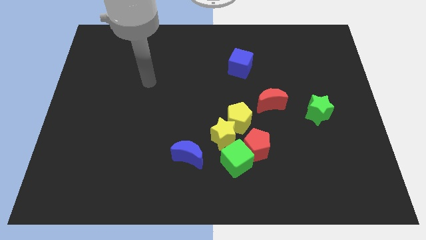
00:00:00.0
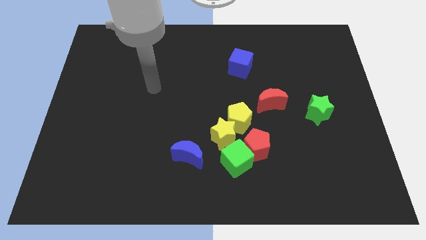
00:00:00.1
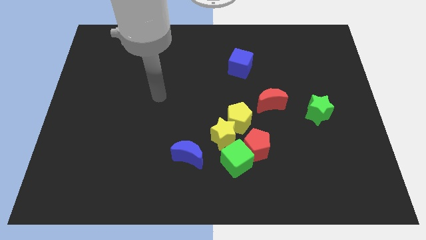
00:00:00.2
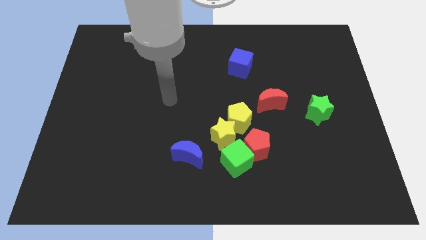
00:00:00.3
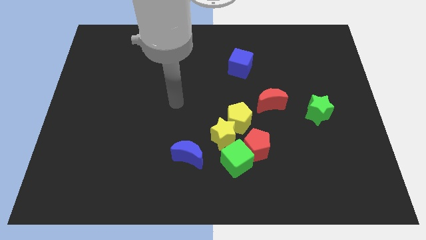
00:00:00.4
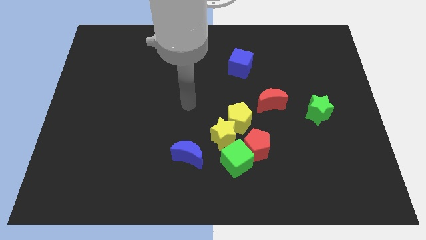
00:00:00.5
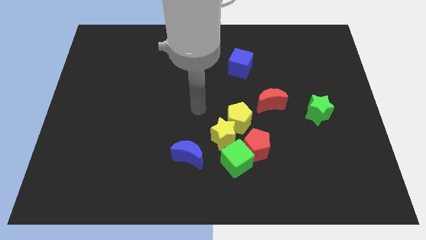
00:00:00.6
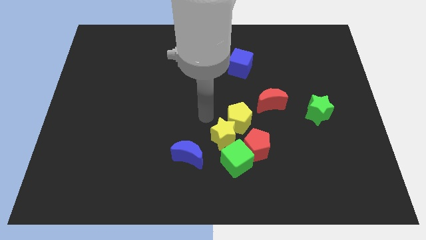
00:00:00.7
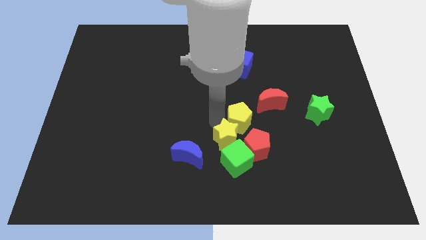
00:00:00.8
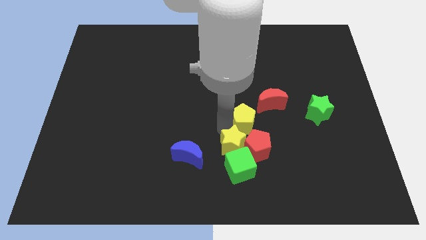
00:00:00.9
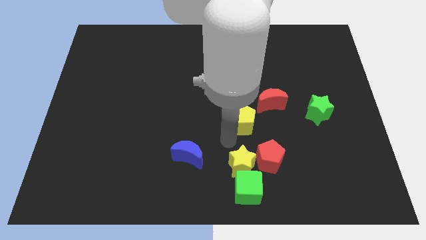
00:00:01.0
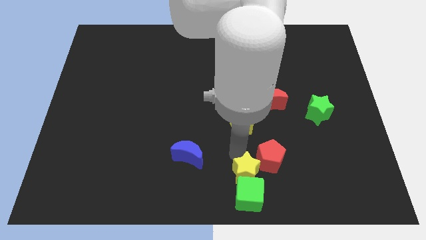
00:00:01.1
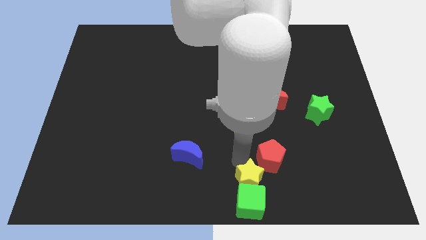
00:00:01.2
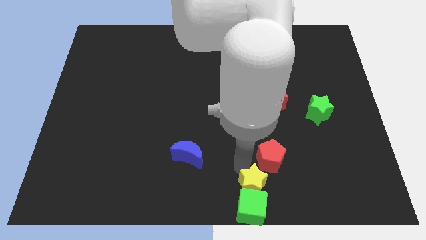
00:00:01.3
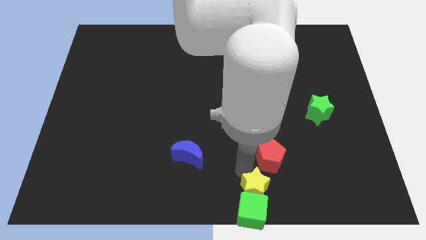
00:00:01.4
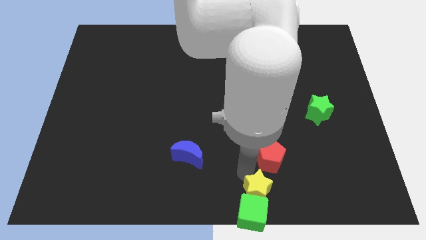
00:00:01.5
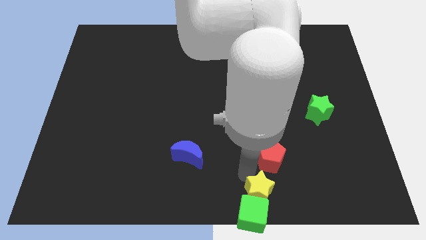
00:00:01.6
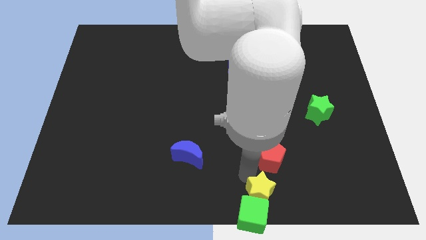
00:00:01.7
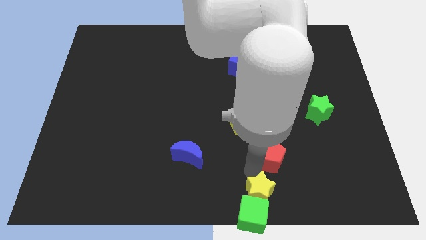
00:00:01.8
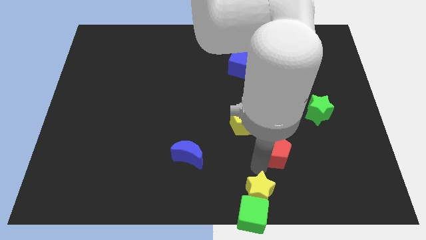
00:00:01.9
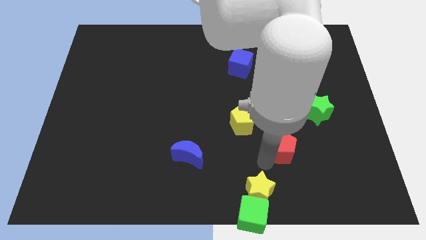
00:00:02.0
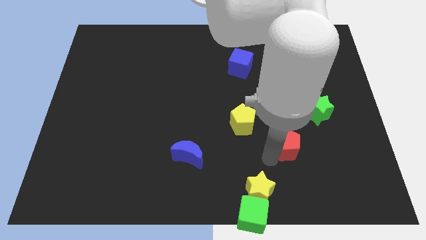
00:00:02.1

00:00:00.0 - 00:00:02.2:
move the red pentagon away from the clump

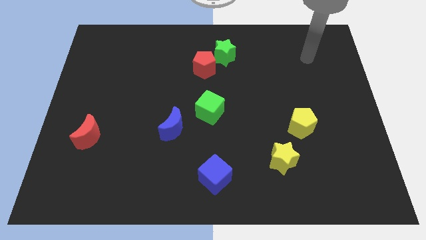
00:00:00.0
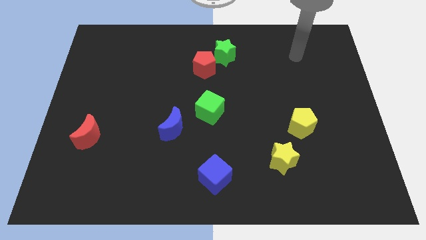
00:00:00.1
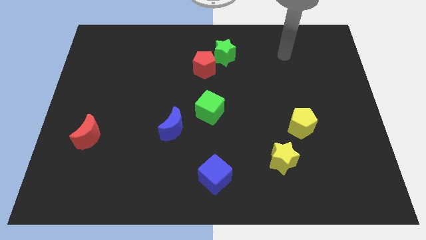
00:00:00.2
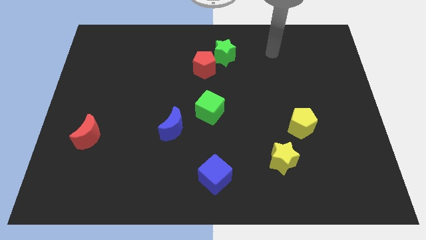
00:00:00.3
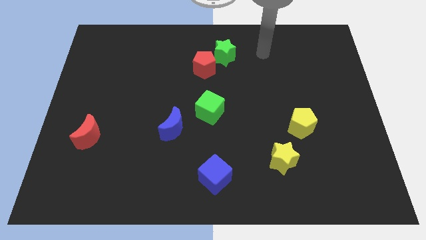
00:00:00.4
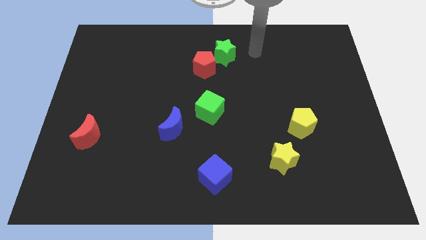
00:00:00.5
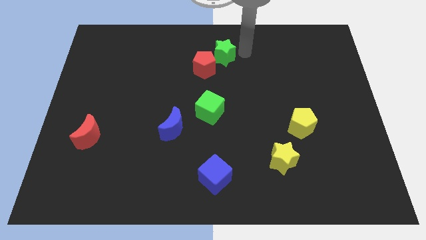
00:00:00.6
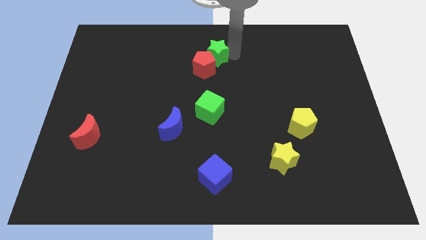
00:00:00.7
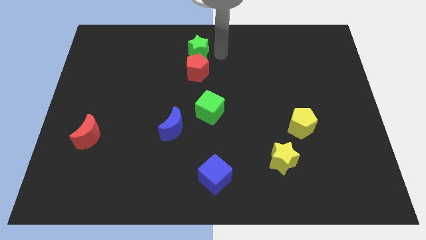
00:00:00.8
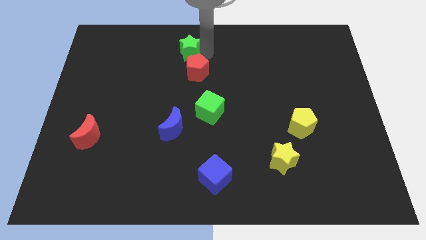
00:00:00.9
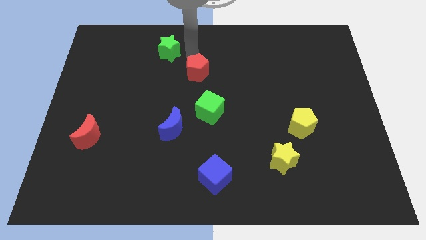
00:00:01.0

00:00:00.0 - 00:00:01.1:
pull the red pentagon apart from the green star

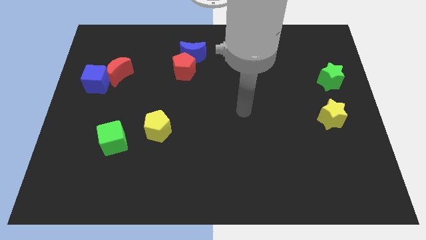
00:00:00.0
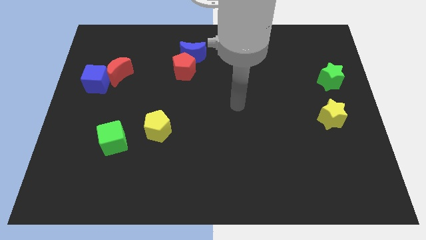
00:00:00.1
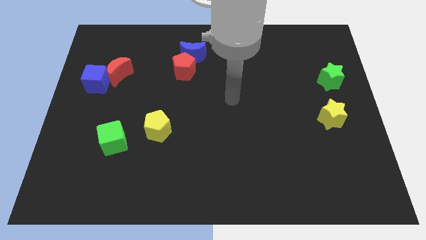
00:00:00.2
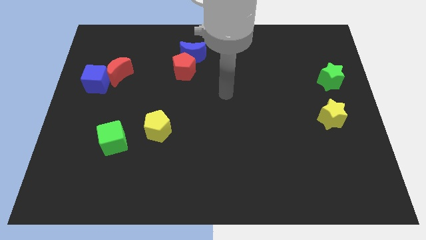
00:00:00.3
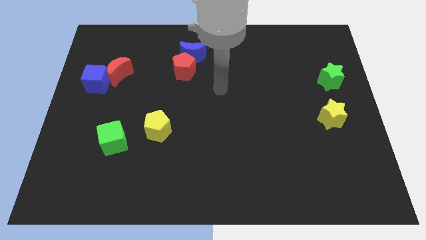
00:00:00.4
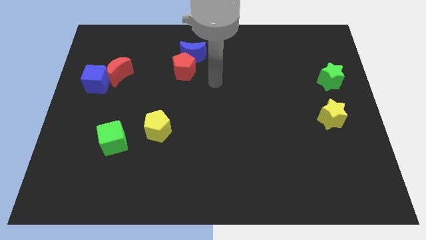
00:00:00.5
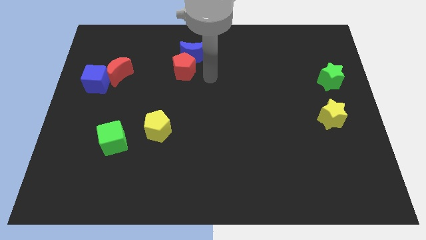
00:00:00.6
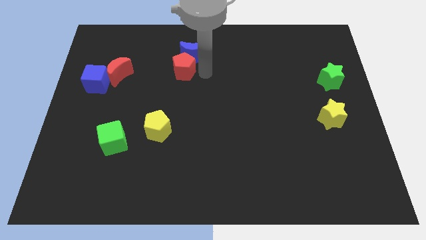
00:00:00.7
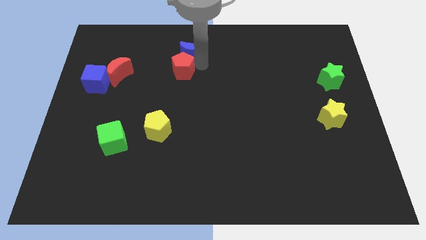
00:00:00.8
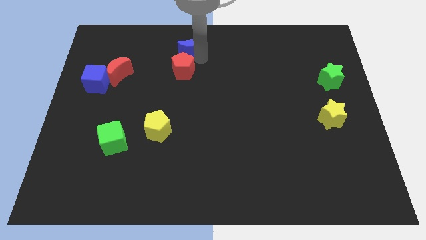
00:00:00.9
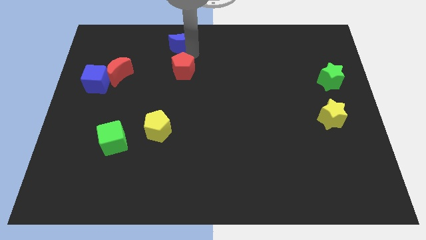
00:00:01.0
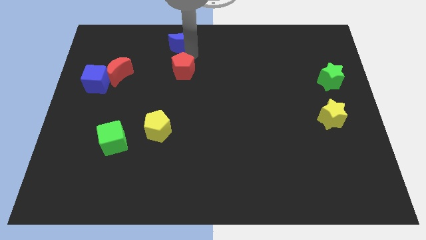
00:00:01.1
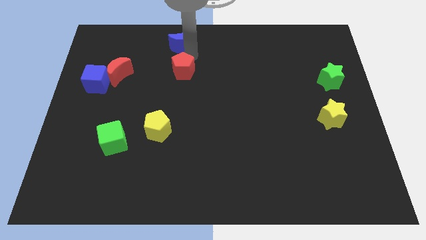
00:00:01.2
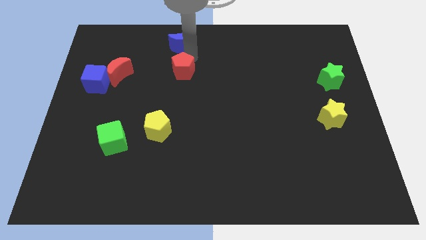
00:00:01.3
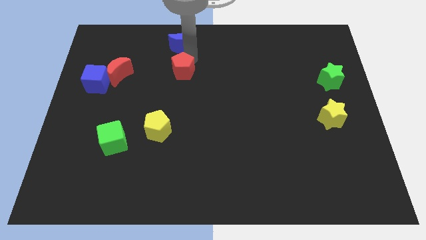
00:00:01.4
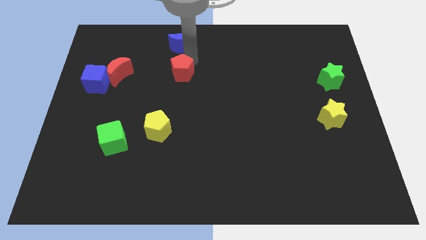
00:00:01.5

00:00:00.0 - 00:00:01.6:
move the red pentagon away from the blue moon

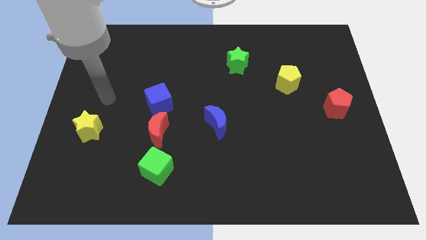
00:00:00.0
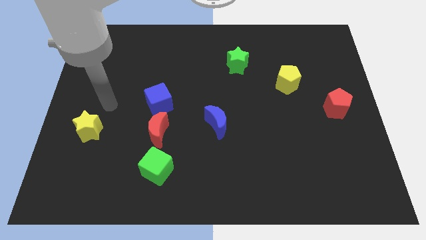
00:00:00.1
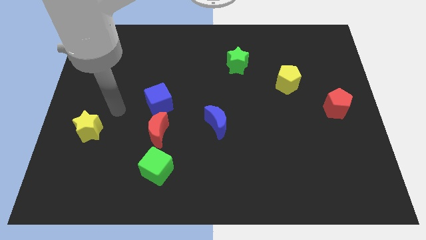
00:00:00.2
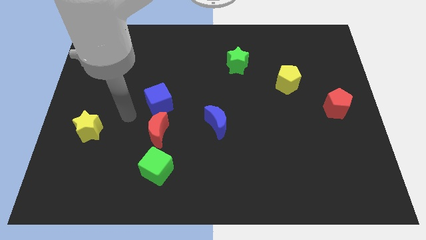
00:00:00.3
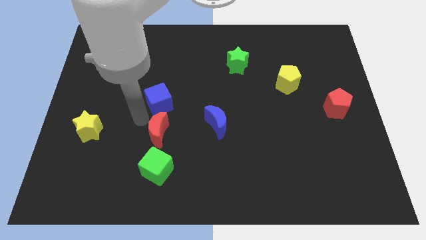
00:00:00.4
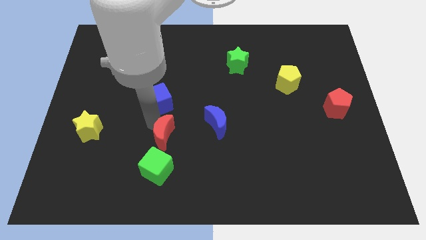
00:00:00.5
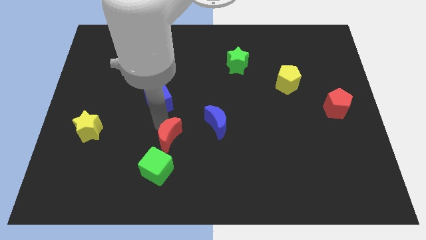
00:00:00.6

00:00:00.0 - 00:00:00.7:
move the blue cube away from the red moon

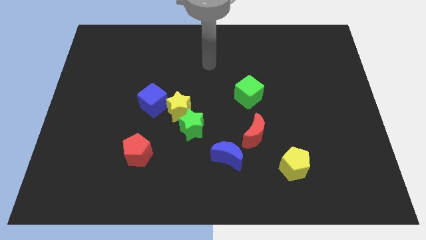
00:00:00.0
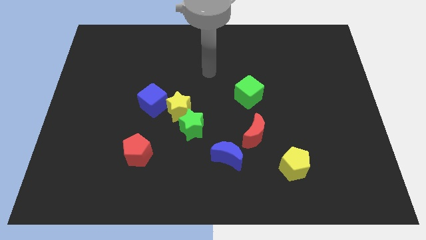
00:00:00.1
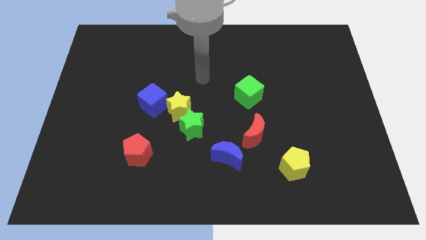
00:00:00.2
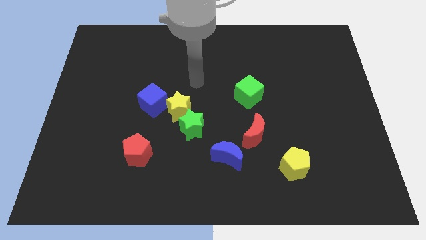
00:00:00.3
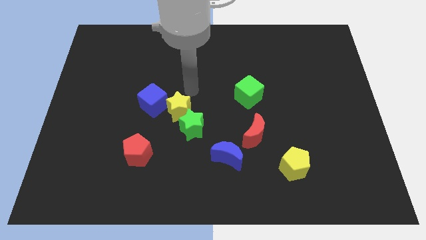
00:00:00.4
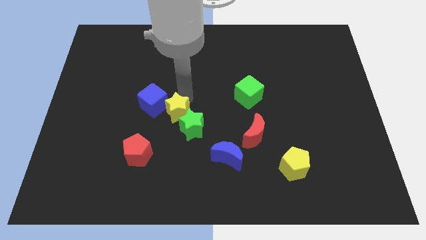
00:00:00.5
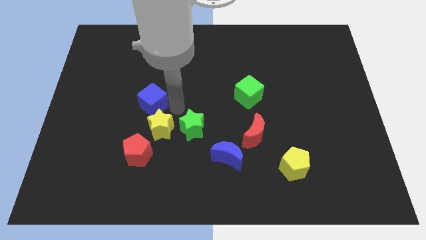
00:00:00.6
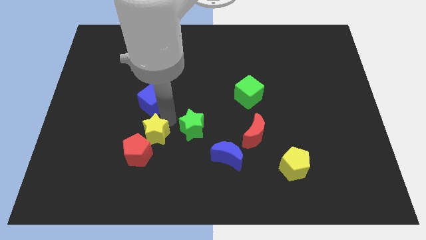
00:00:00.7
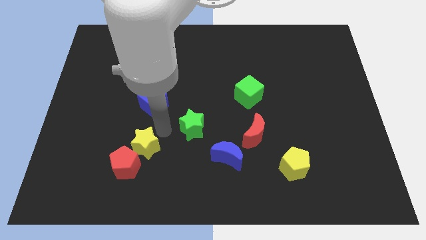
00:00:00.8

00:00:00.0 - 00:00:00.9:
move the green star away from the yellow star

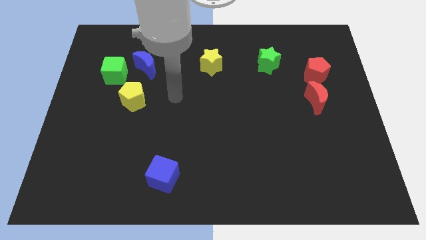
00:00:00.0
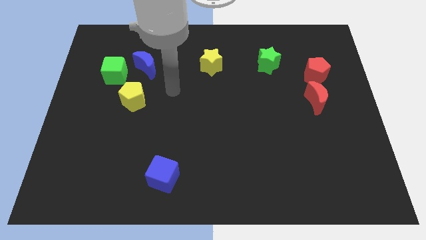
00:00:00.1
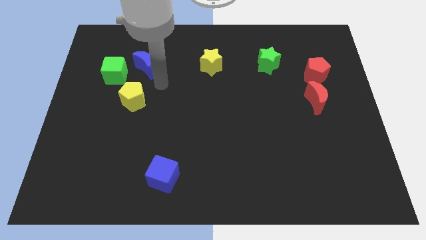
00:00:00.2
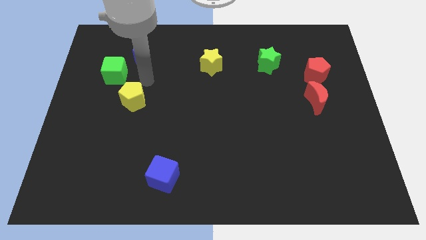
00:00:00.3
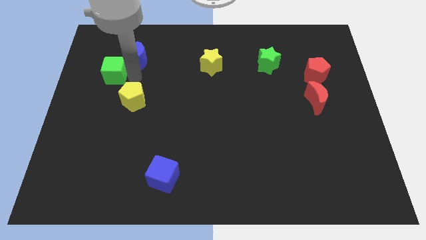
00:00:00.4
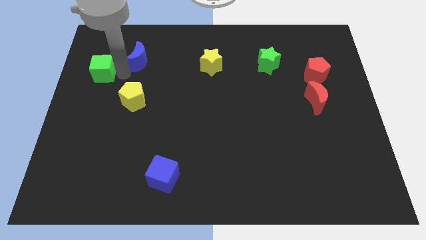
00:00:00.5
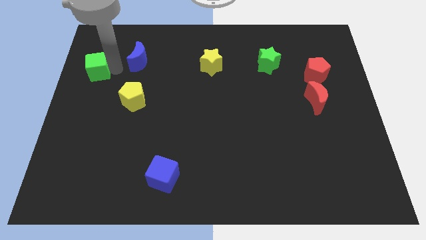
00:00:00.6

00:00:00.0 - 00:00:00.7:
move the blue moon away from the green cube

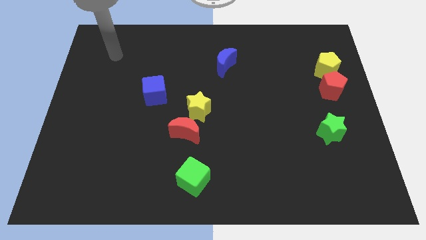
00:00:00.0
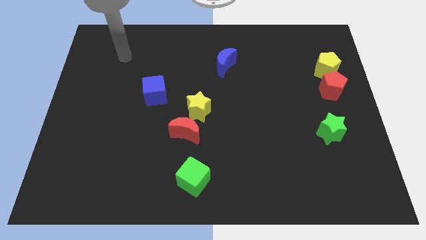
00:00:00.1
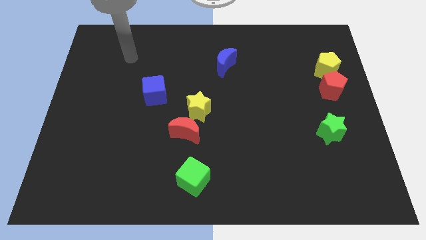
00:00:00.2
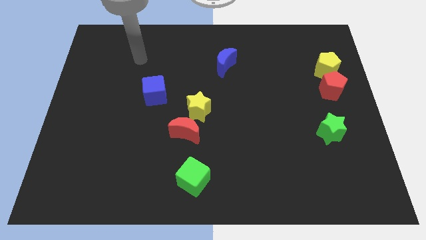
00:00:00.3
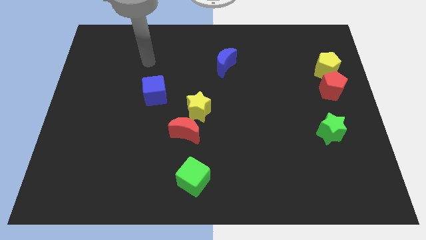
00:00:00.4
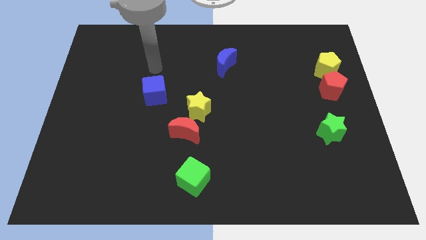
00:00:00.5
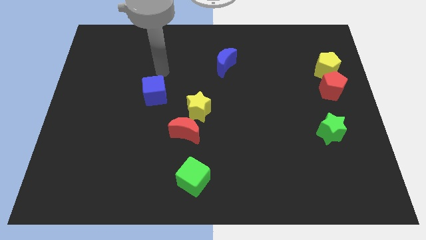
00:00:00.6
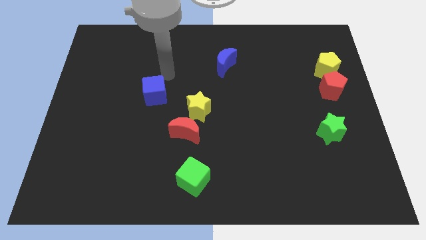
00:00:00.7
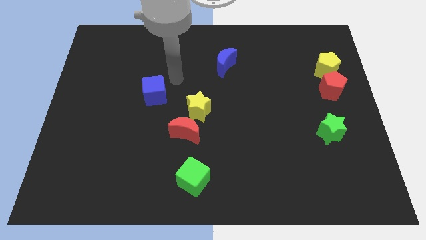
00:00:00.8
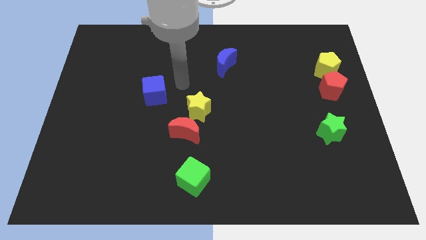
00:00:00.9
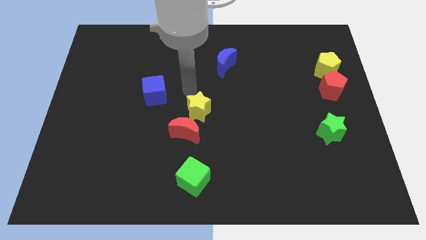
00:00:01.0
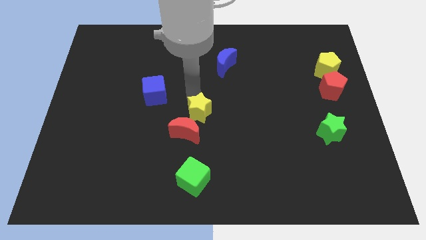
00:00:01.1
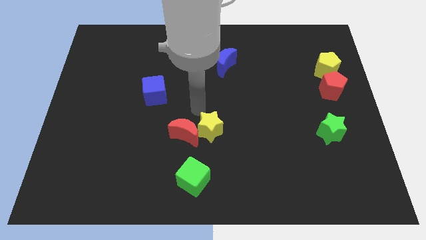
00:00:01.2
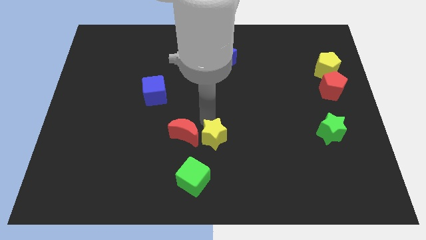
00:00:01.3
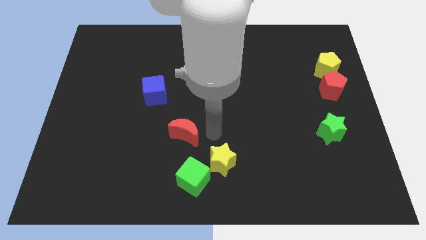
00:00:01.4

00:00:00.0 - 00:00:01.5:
pull the red moon apart from the yellow star

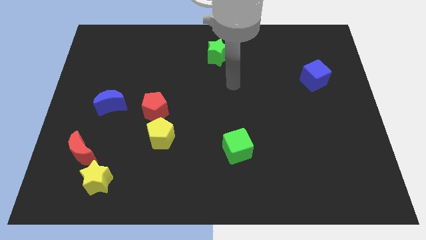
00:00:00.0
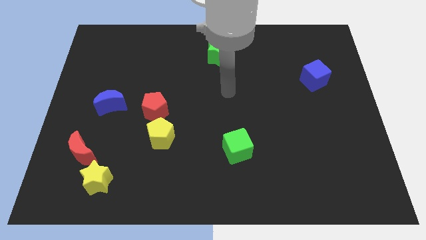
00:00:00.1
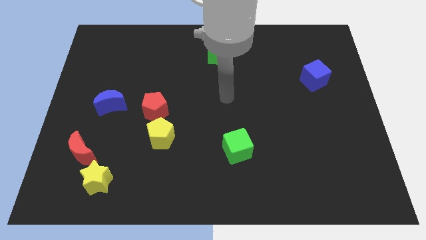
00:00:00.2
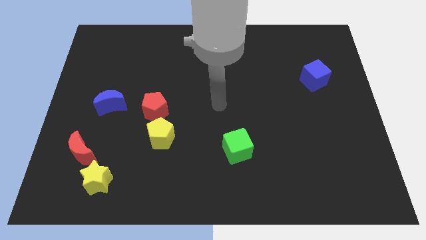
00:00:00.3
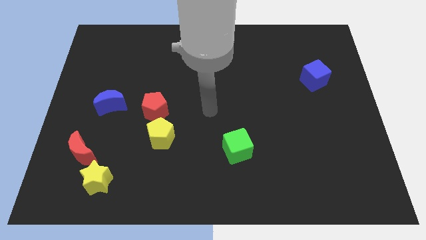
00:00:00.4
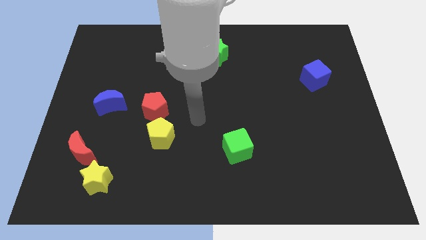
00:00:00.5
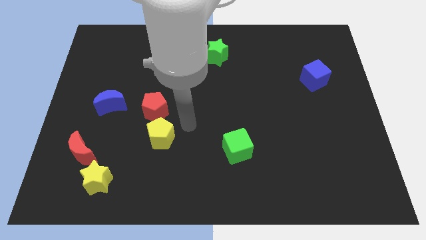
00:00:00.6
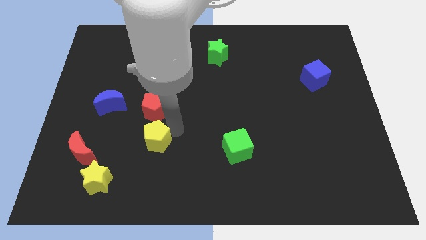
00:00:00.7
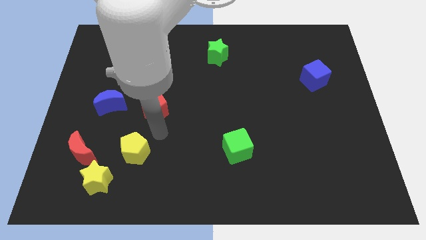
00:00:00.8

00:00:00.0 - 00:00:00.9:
move the red pentagon away from the yellow pentagon
